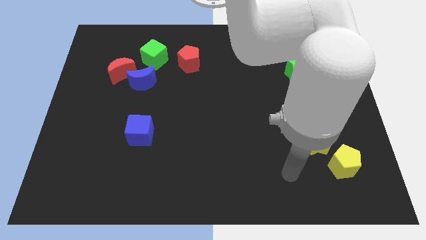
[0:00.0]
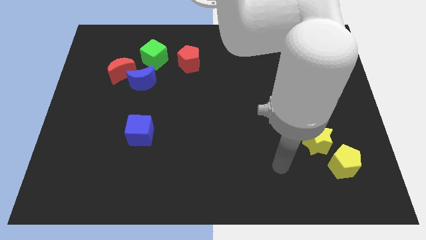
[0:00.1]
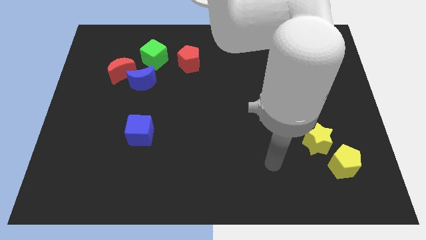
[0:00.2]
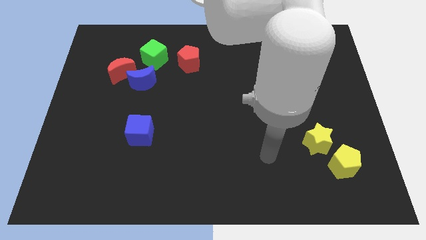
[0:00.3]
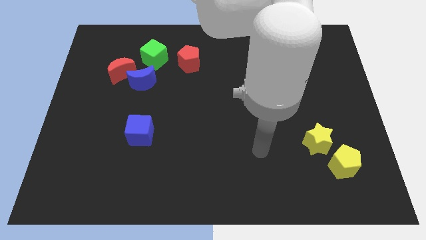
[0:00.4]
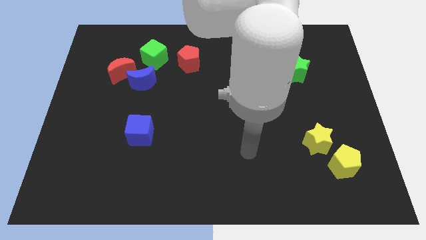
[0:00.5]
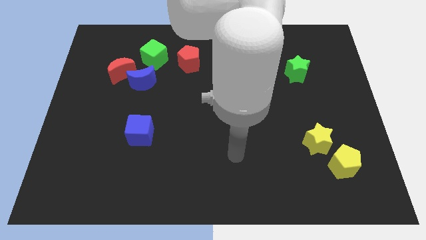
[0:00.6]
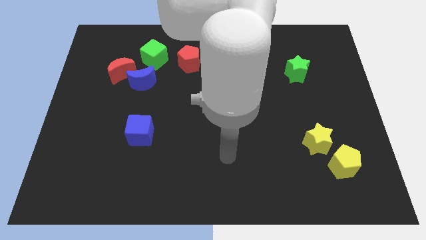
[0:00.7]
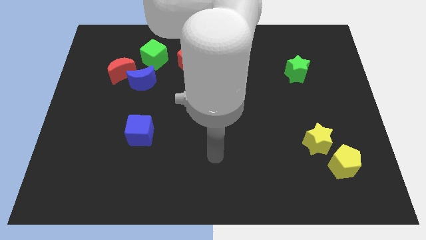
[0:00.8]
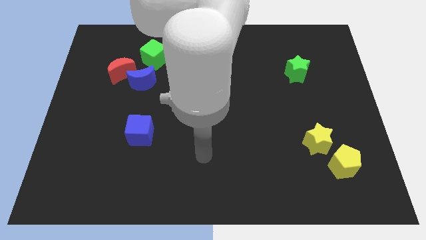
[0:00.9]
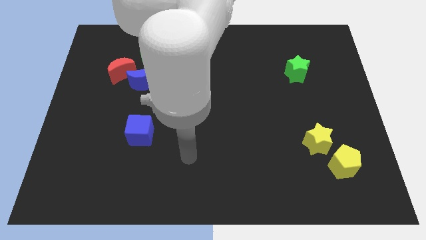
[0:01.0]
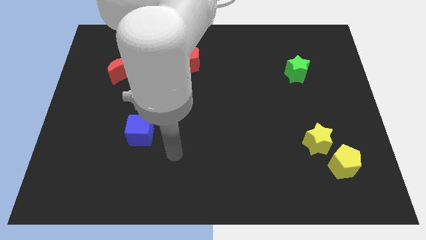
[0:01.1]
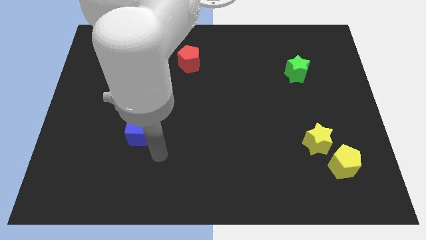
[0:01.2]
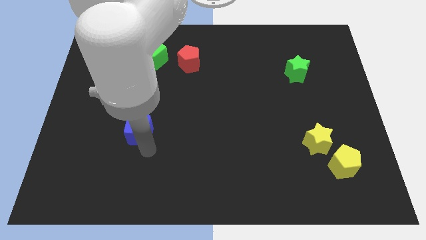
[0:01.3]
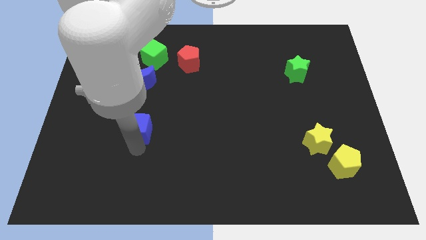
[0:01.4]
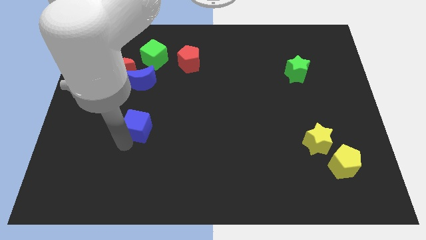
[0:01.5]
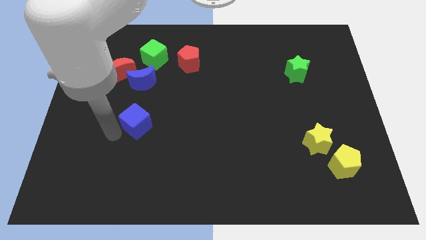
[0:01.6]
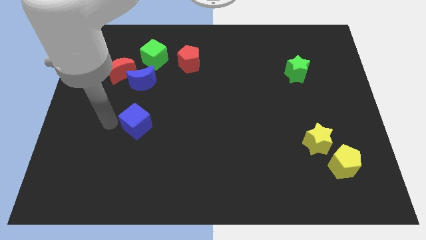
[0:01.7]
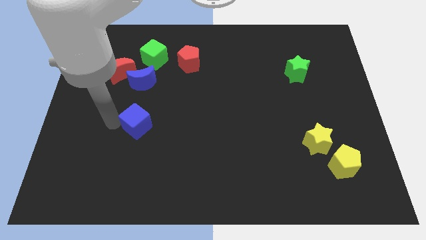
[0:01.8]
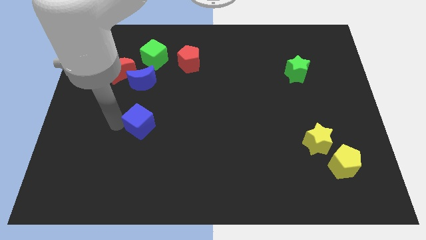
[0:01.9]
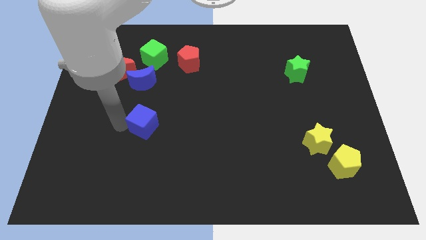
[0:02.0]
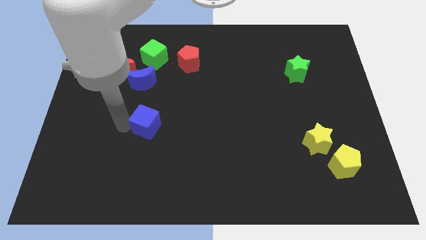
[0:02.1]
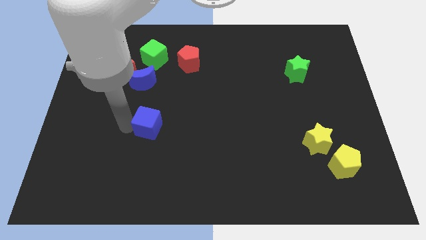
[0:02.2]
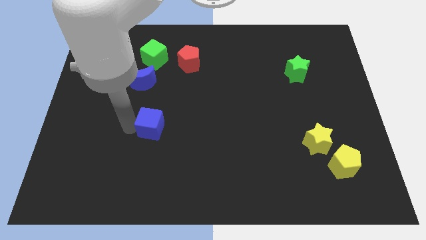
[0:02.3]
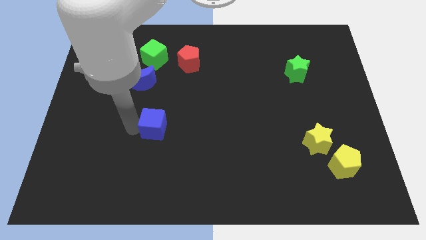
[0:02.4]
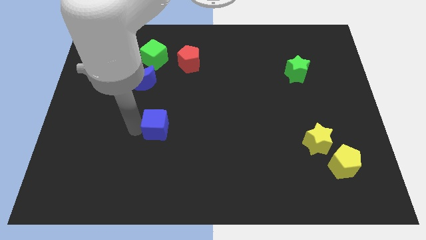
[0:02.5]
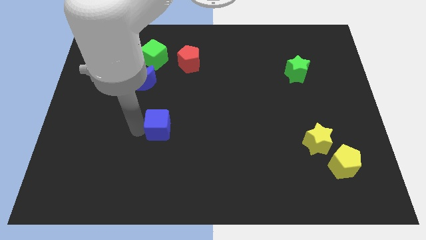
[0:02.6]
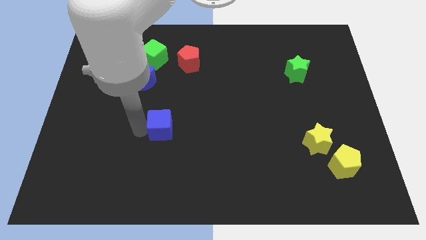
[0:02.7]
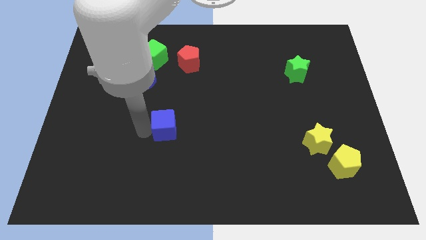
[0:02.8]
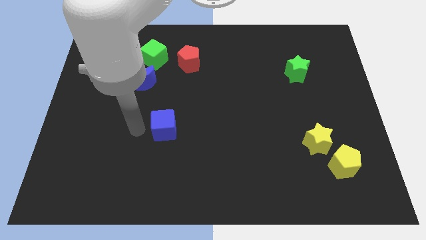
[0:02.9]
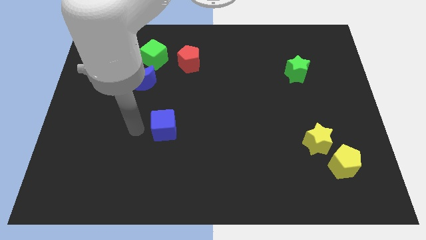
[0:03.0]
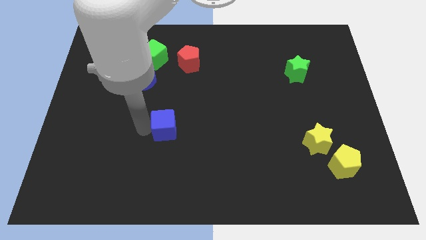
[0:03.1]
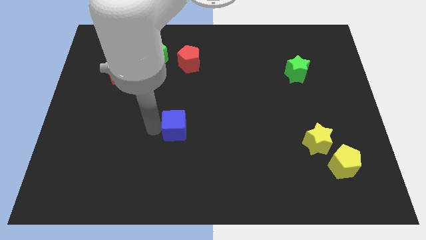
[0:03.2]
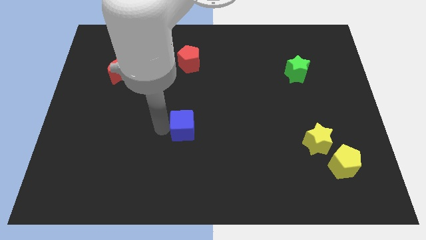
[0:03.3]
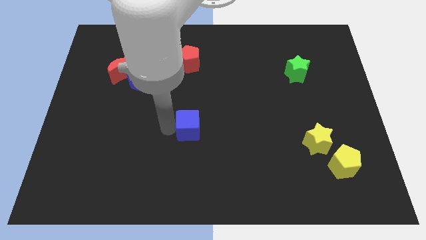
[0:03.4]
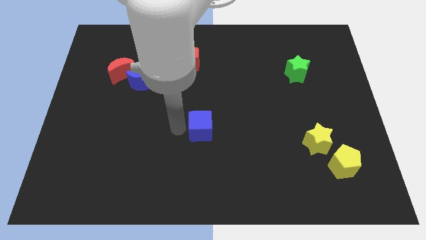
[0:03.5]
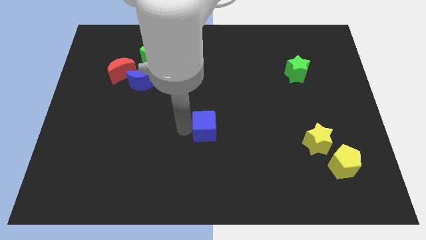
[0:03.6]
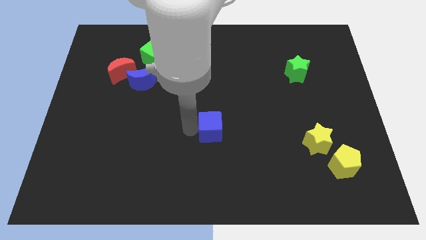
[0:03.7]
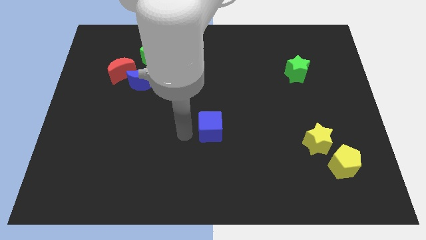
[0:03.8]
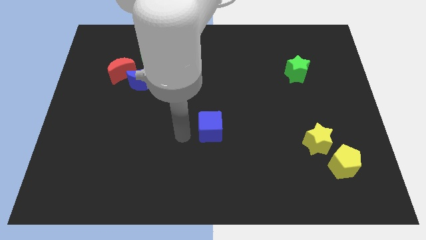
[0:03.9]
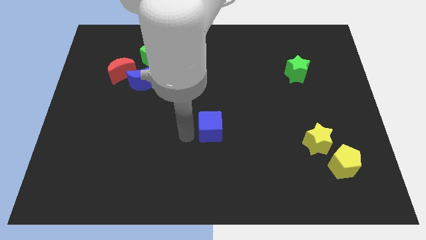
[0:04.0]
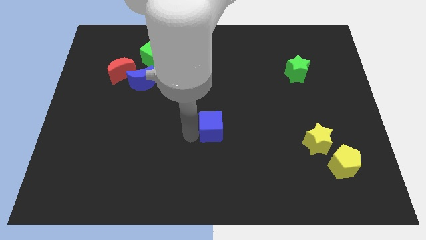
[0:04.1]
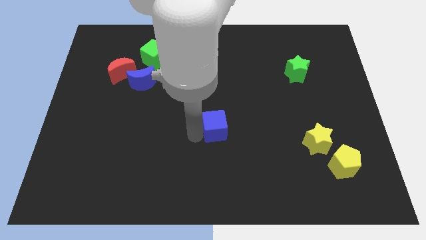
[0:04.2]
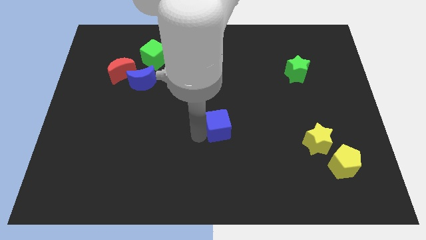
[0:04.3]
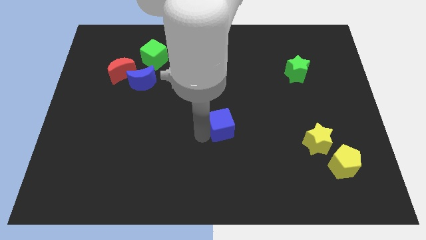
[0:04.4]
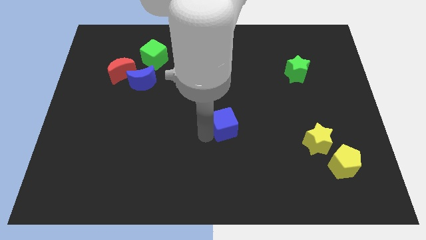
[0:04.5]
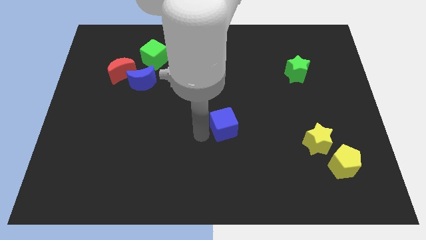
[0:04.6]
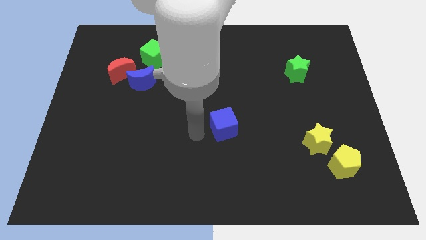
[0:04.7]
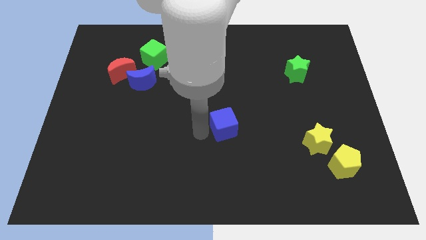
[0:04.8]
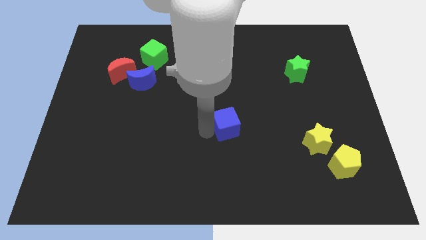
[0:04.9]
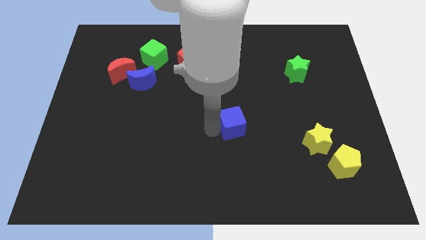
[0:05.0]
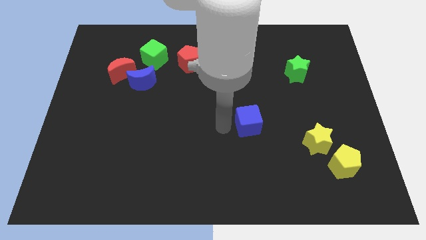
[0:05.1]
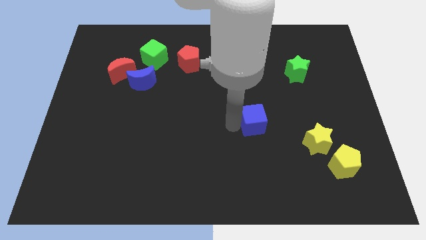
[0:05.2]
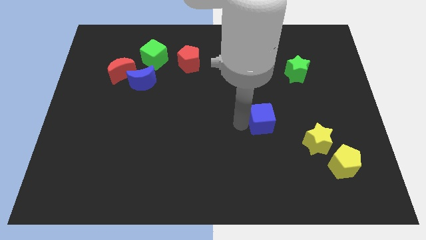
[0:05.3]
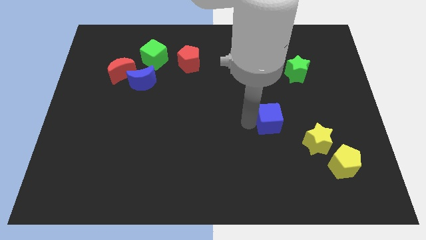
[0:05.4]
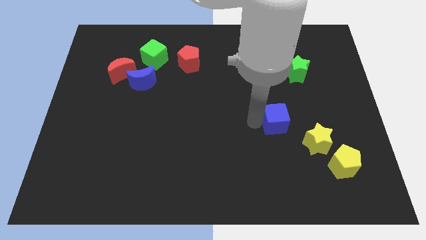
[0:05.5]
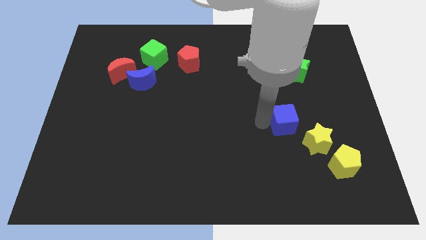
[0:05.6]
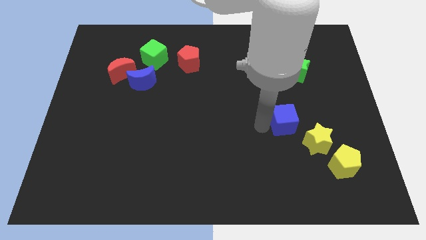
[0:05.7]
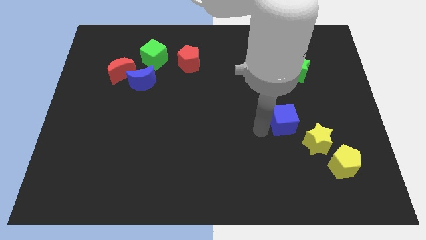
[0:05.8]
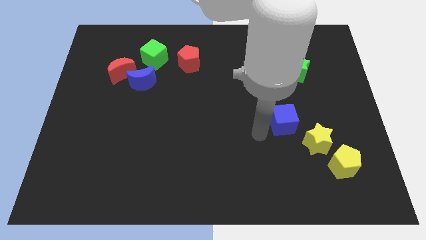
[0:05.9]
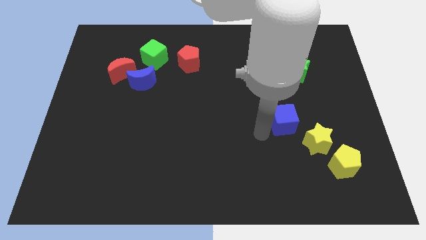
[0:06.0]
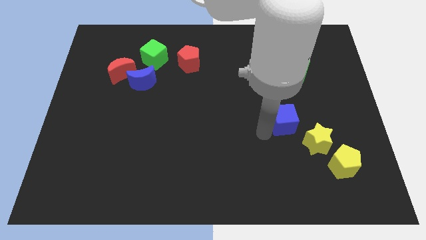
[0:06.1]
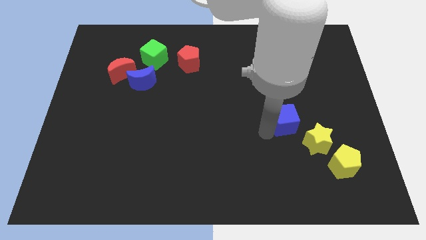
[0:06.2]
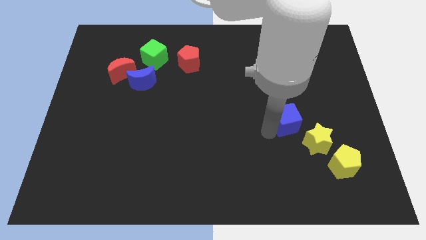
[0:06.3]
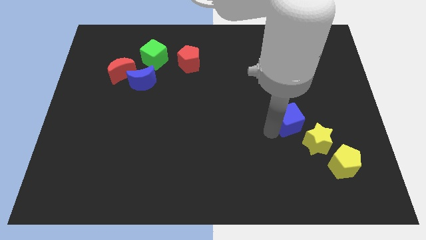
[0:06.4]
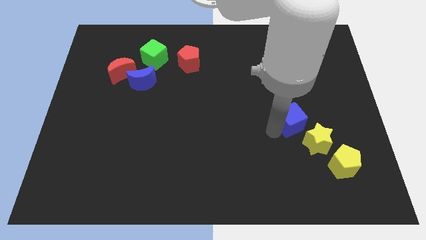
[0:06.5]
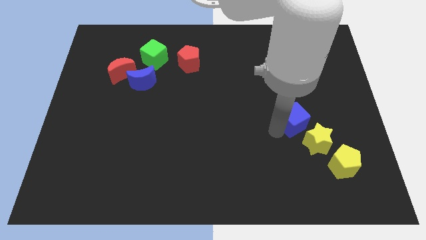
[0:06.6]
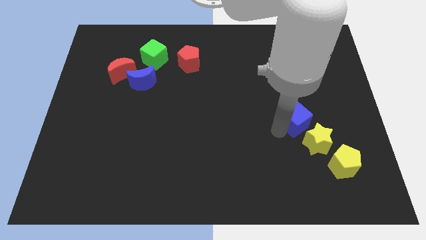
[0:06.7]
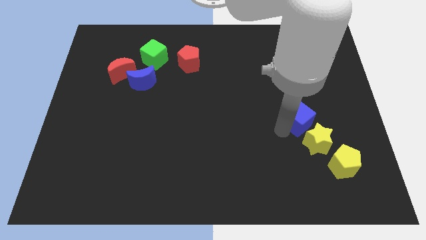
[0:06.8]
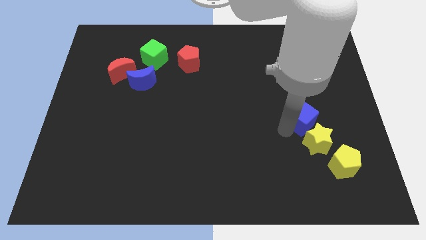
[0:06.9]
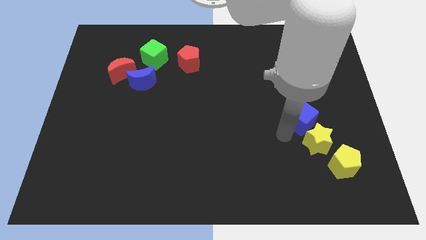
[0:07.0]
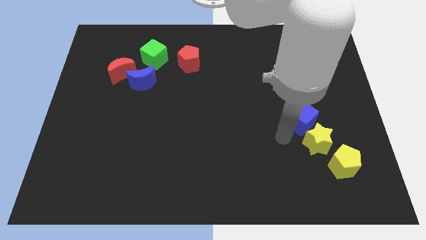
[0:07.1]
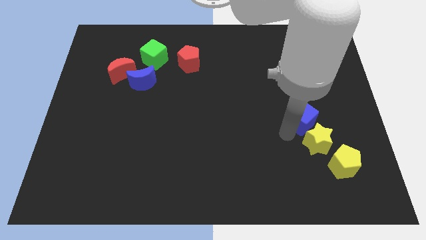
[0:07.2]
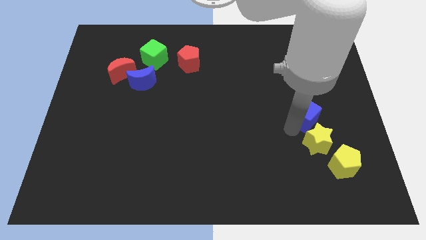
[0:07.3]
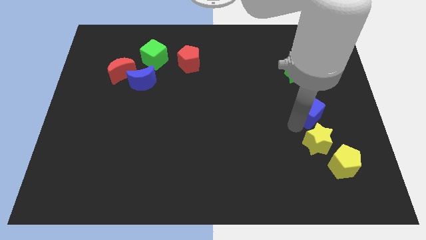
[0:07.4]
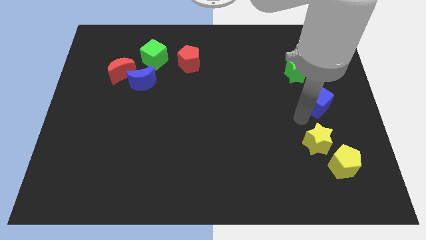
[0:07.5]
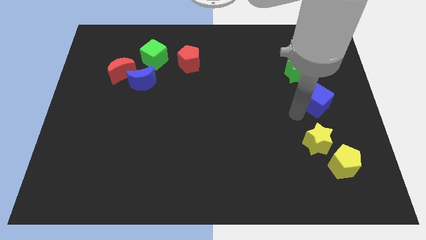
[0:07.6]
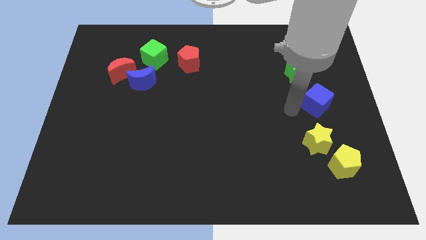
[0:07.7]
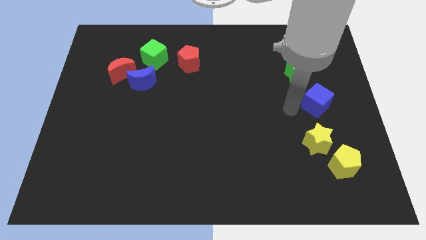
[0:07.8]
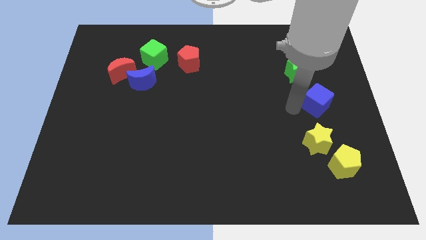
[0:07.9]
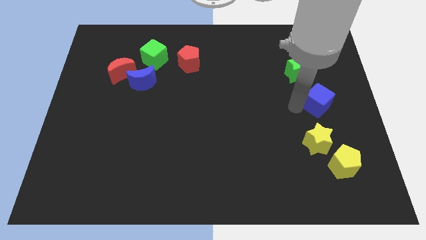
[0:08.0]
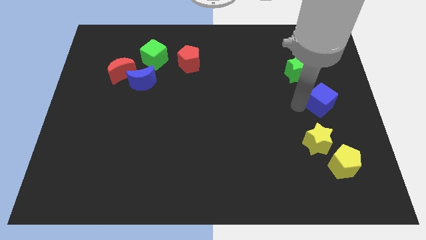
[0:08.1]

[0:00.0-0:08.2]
put the blue cube to the right side of the board
